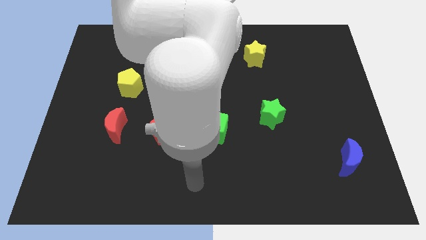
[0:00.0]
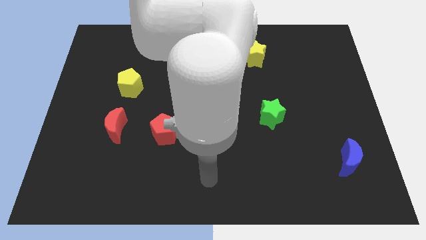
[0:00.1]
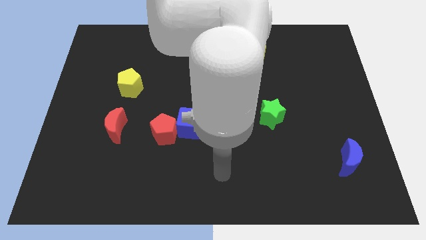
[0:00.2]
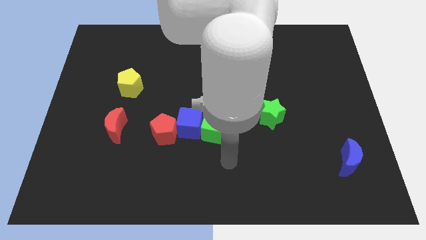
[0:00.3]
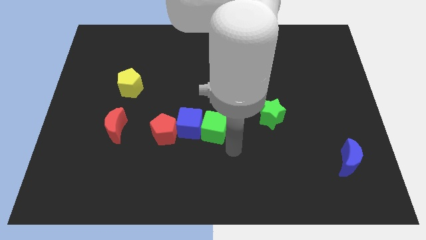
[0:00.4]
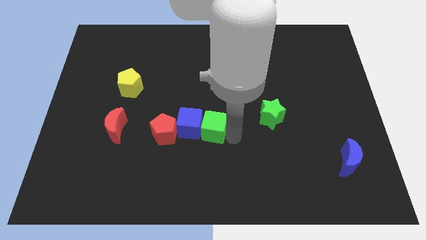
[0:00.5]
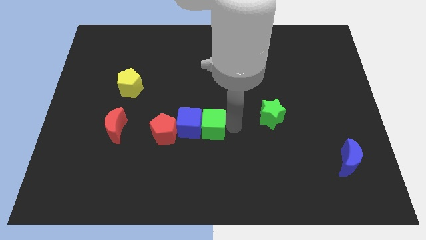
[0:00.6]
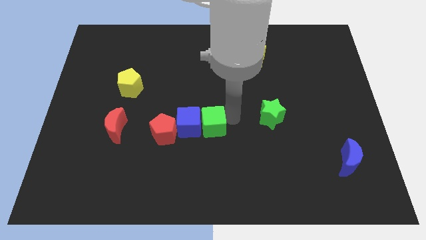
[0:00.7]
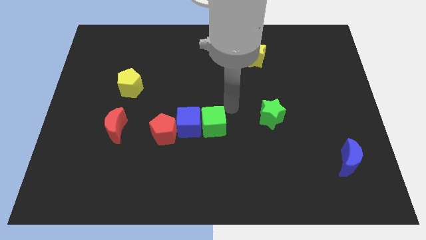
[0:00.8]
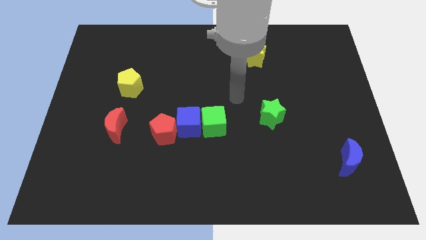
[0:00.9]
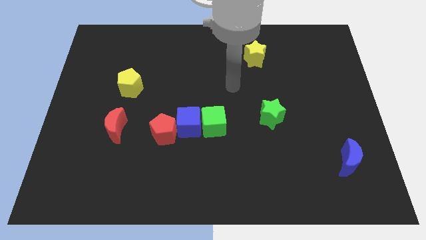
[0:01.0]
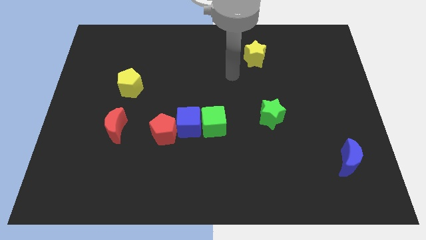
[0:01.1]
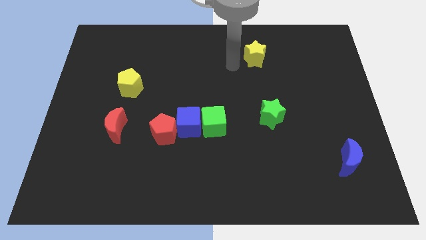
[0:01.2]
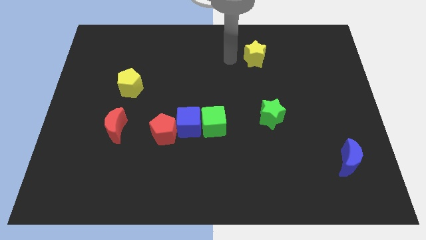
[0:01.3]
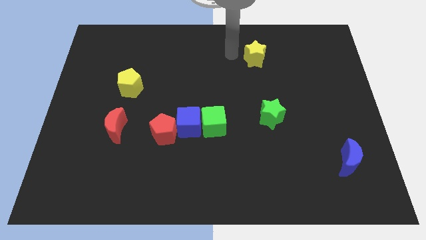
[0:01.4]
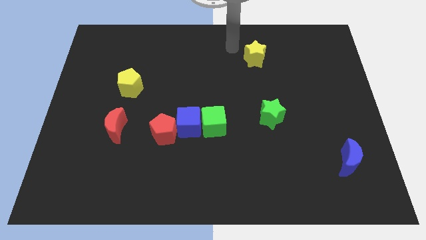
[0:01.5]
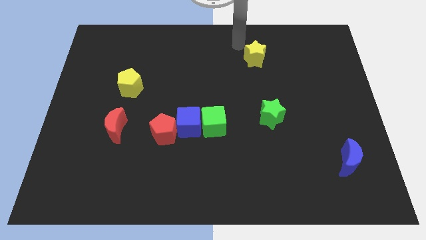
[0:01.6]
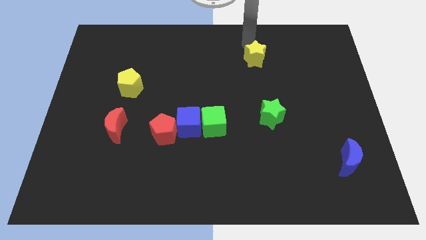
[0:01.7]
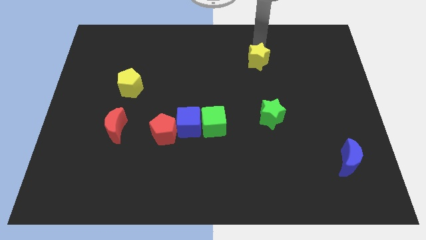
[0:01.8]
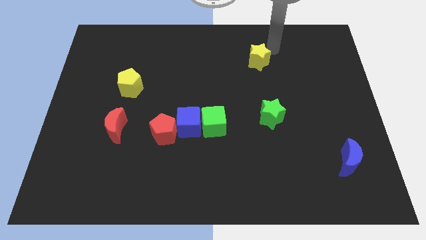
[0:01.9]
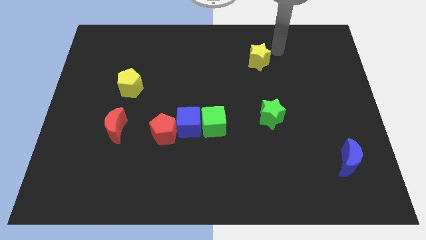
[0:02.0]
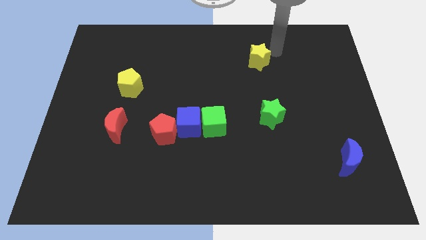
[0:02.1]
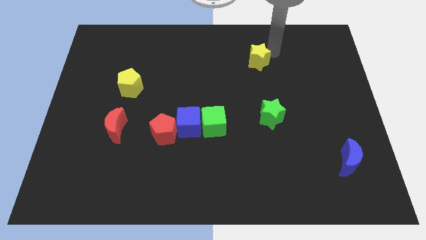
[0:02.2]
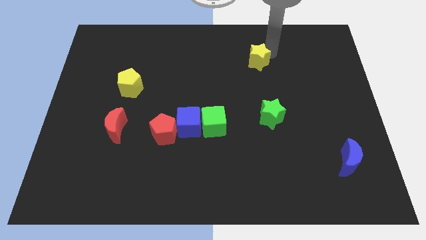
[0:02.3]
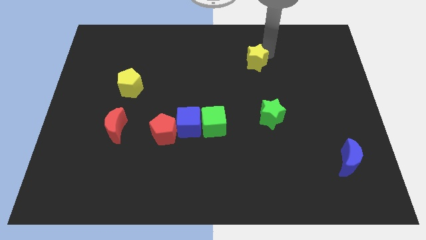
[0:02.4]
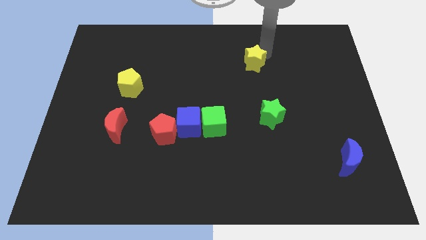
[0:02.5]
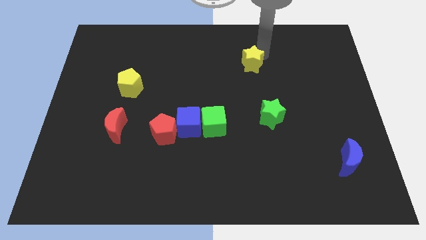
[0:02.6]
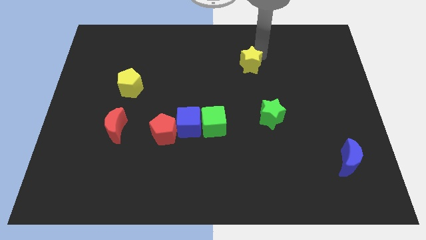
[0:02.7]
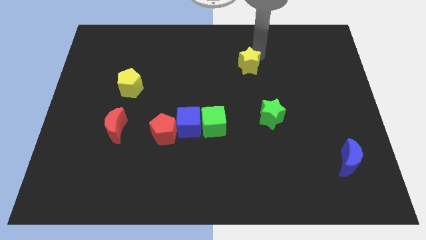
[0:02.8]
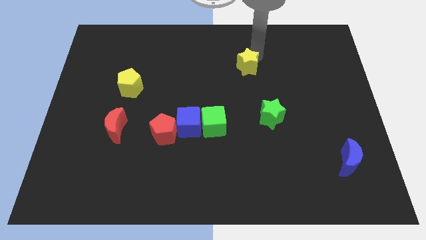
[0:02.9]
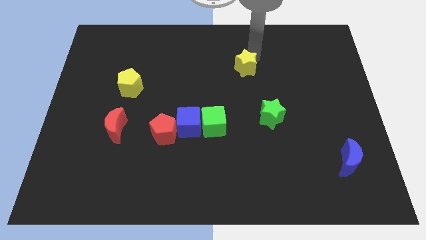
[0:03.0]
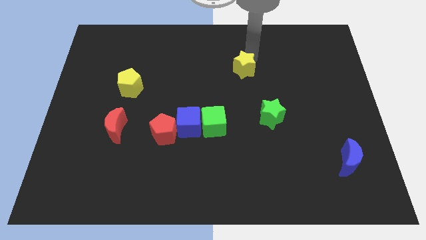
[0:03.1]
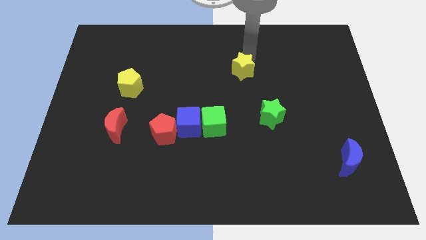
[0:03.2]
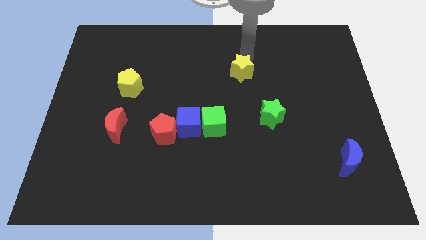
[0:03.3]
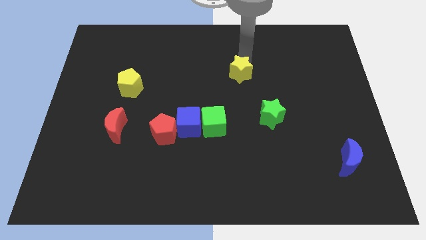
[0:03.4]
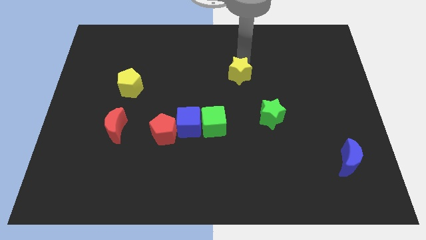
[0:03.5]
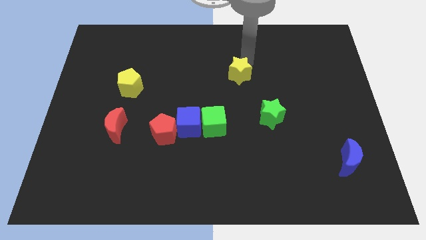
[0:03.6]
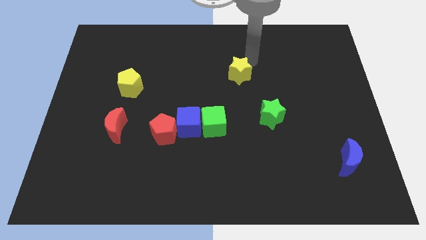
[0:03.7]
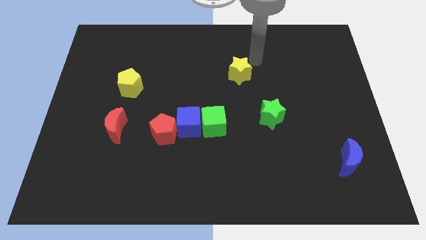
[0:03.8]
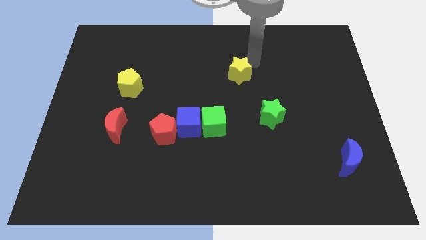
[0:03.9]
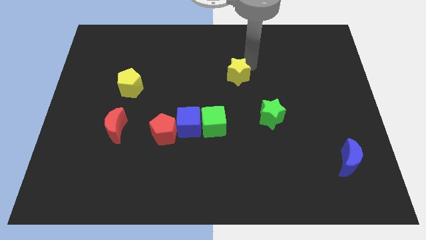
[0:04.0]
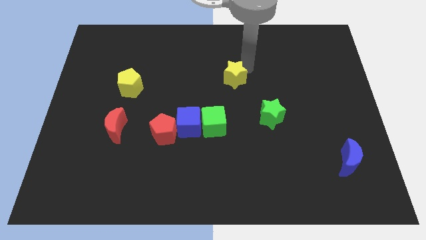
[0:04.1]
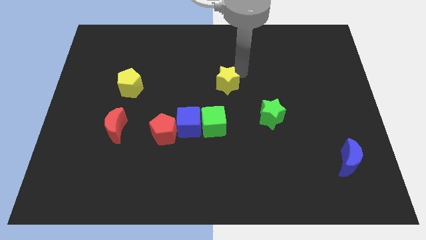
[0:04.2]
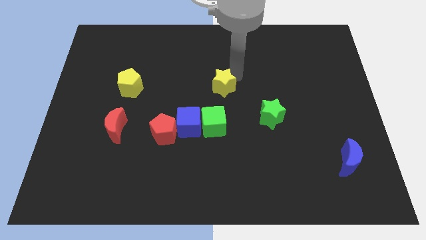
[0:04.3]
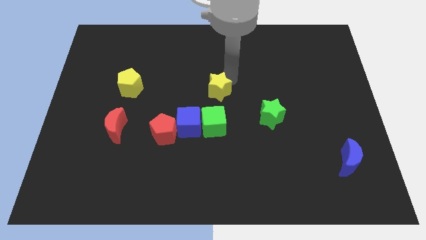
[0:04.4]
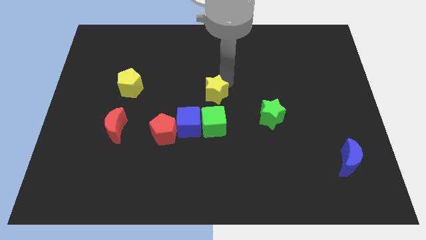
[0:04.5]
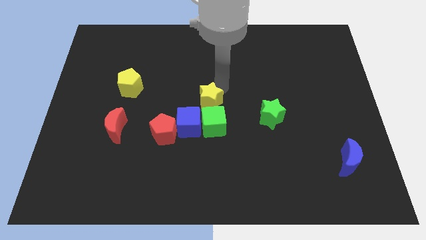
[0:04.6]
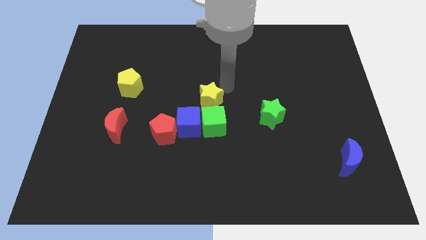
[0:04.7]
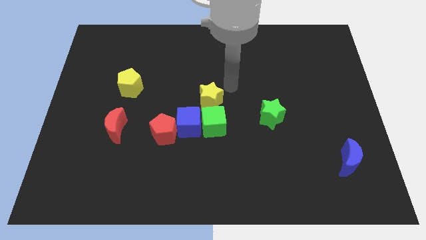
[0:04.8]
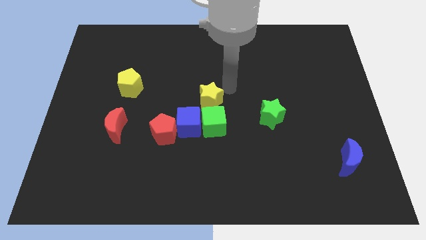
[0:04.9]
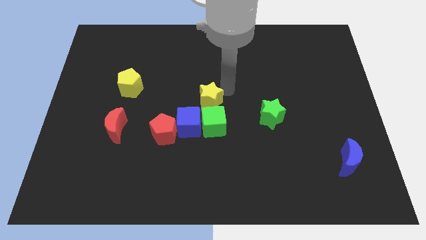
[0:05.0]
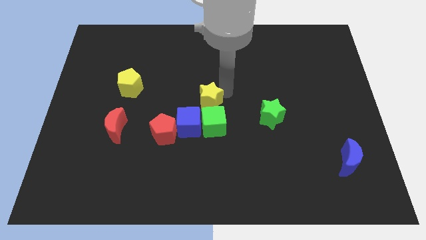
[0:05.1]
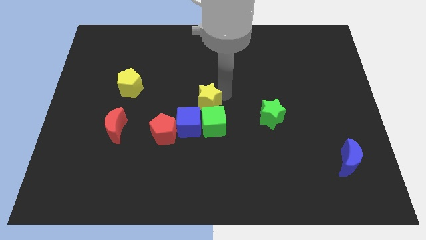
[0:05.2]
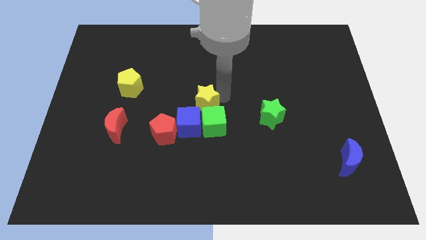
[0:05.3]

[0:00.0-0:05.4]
push the yellow star to the top right of the red pentagon

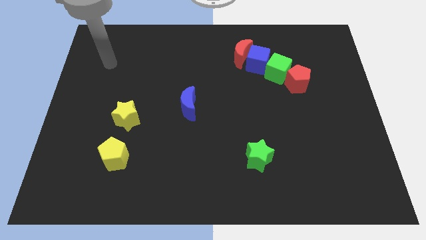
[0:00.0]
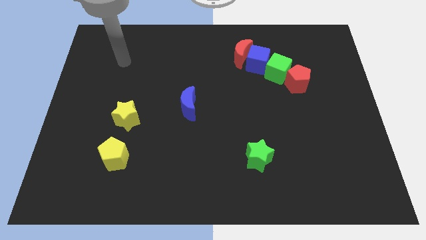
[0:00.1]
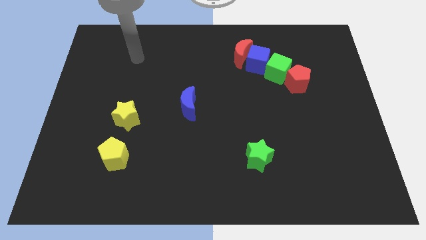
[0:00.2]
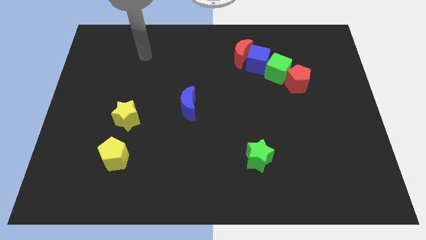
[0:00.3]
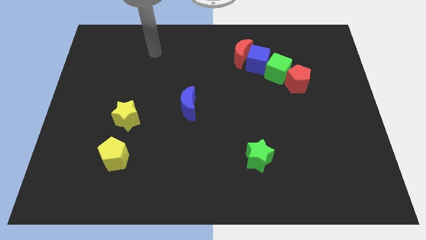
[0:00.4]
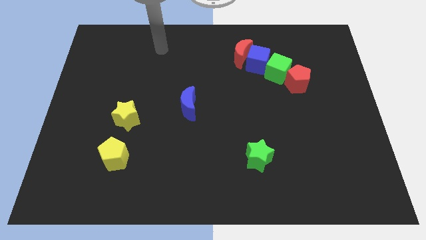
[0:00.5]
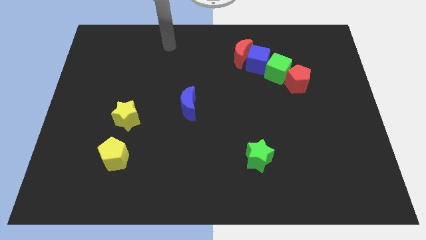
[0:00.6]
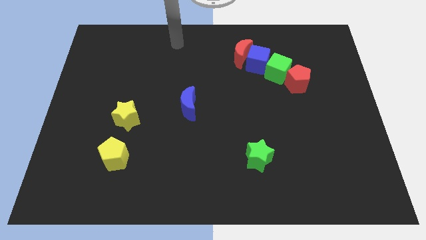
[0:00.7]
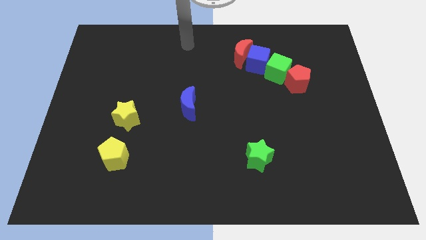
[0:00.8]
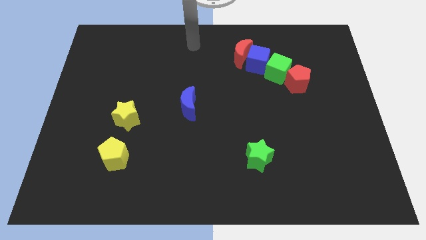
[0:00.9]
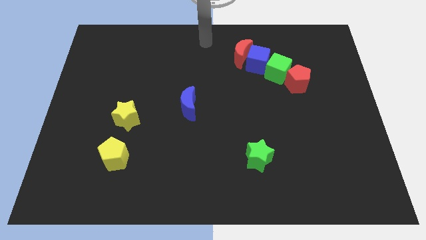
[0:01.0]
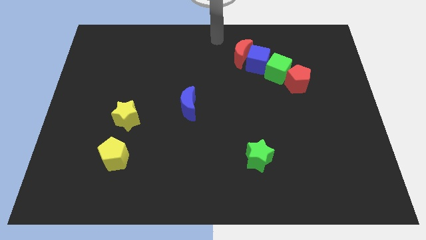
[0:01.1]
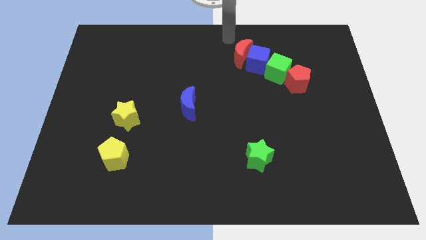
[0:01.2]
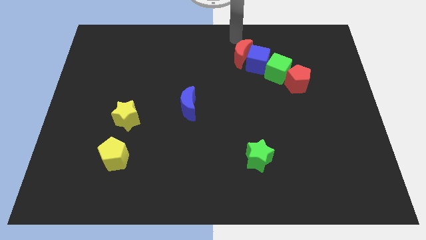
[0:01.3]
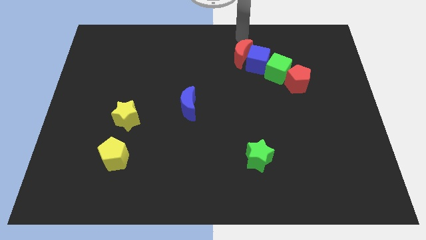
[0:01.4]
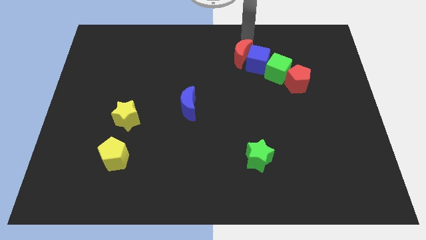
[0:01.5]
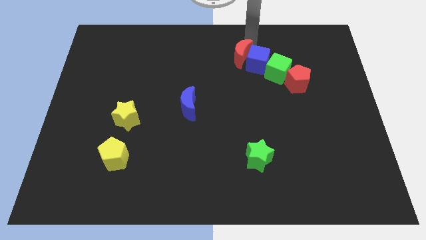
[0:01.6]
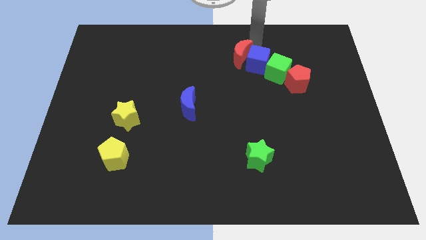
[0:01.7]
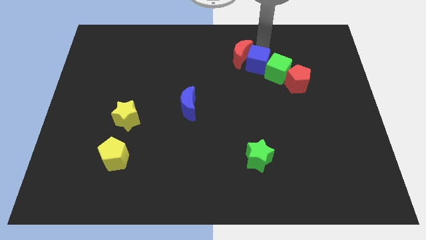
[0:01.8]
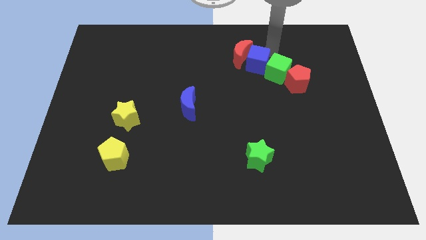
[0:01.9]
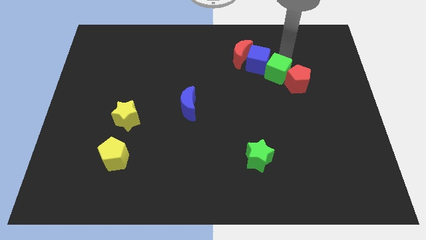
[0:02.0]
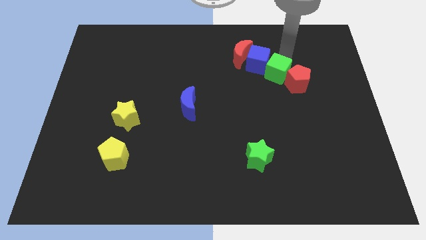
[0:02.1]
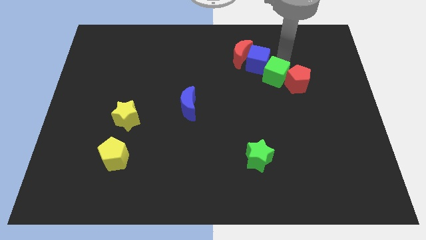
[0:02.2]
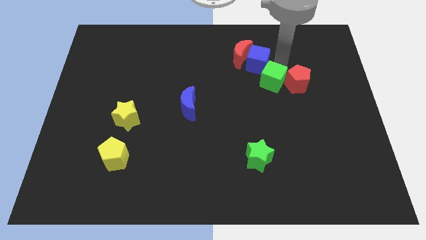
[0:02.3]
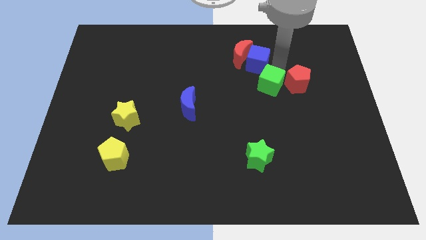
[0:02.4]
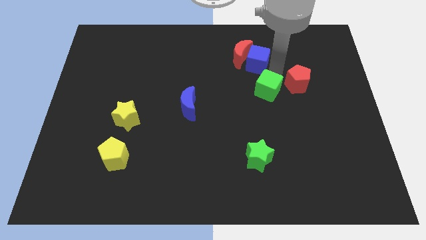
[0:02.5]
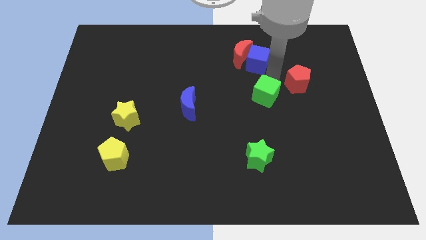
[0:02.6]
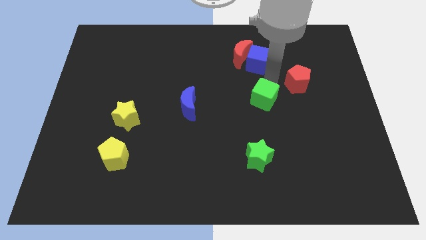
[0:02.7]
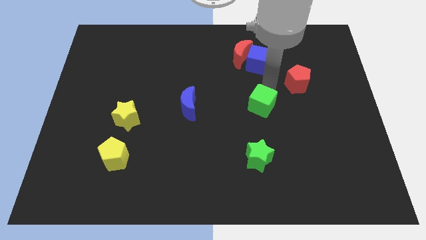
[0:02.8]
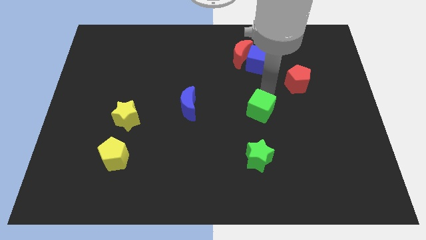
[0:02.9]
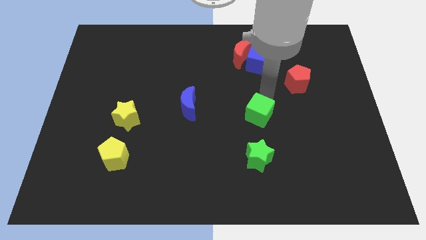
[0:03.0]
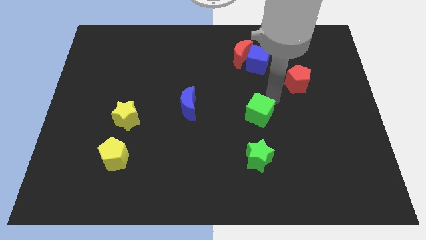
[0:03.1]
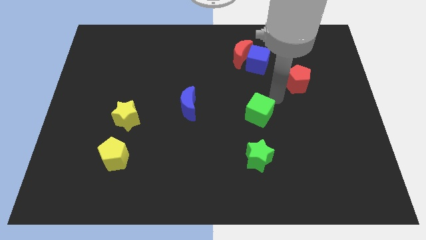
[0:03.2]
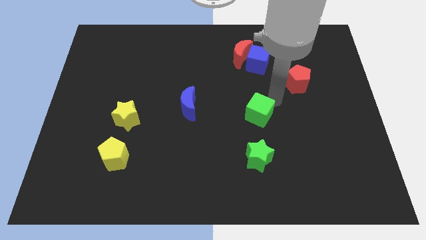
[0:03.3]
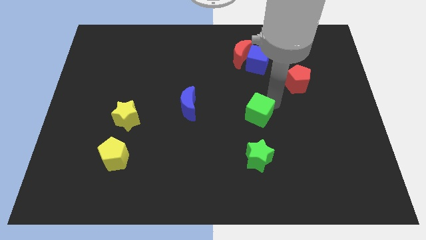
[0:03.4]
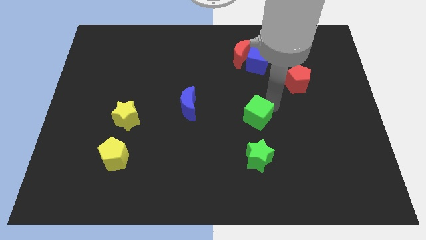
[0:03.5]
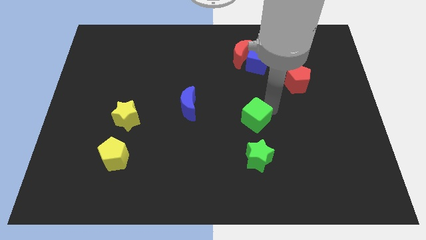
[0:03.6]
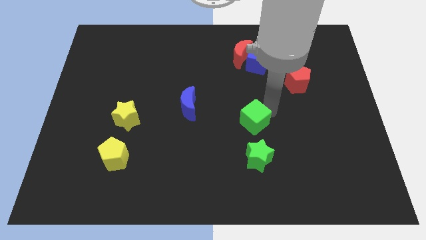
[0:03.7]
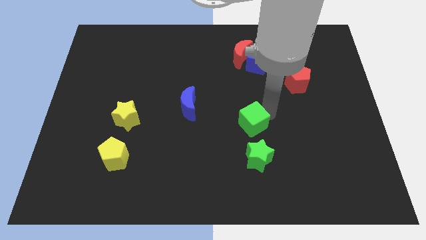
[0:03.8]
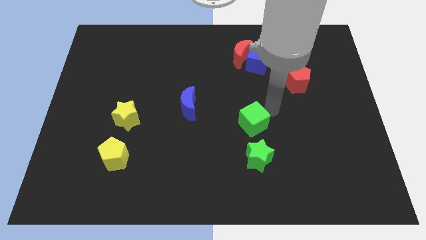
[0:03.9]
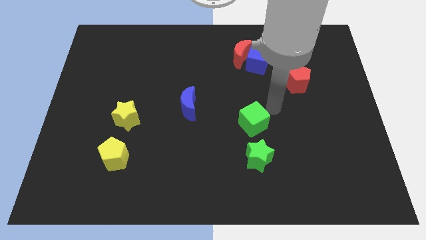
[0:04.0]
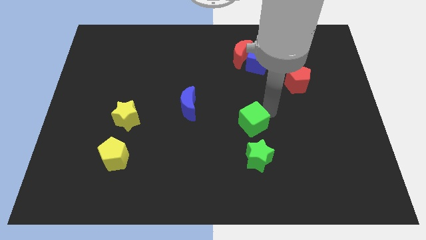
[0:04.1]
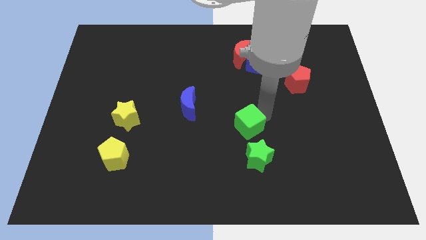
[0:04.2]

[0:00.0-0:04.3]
put the green cube to the top left side of the green star
